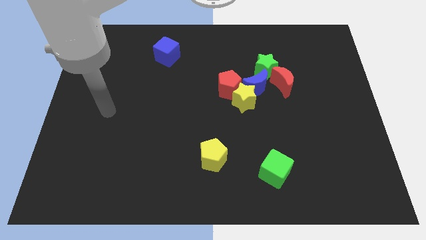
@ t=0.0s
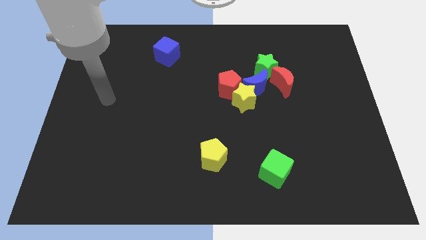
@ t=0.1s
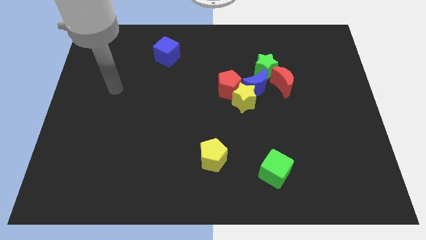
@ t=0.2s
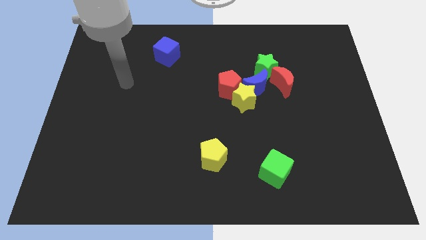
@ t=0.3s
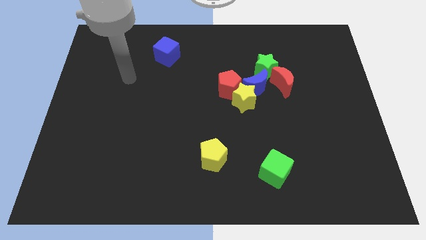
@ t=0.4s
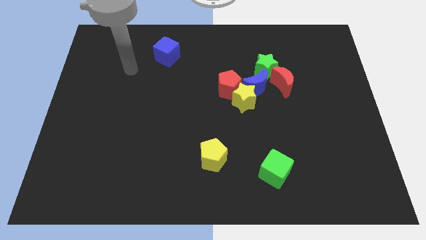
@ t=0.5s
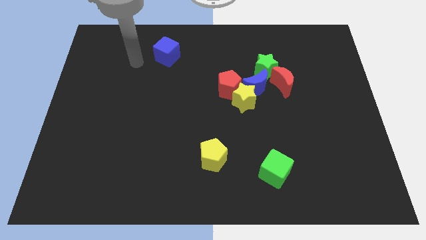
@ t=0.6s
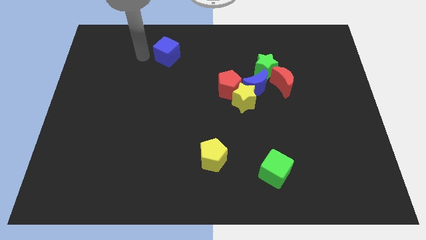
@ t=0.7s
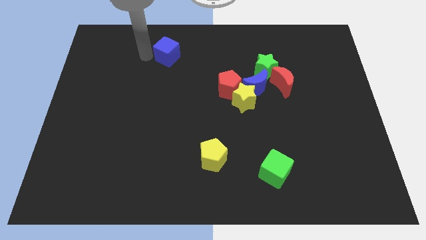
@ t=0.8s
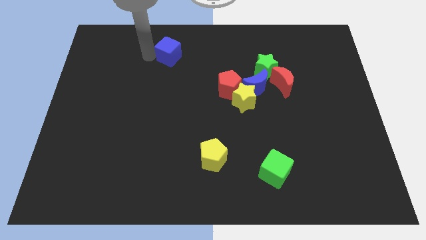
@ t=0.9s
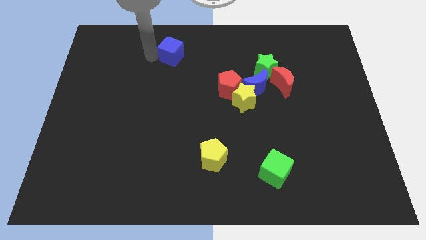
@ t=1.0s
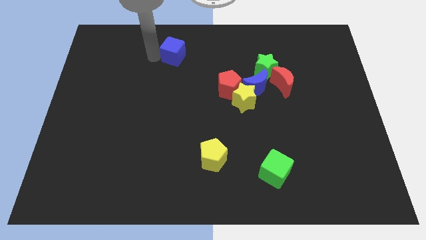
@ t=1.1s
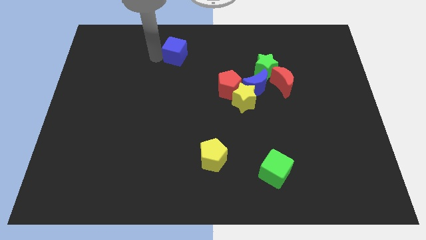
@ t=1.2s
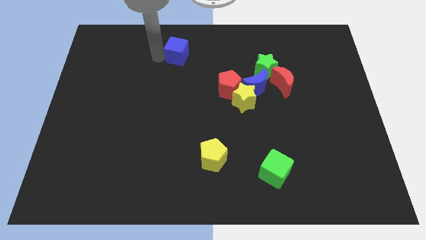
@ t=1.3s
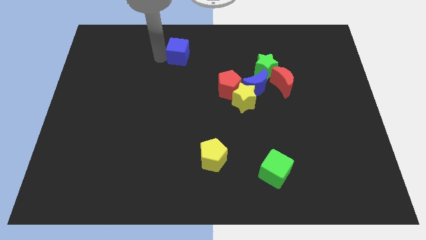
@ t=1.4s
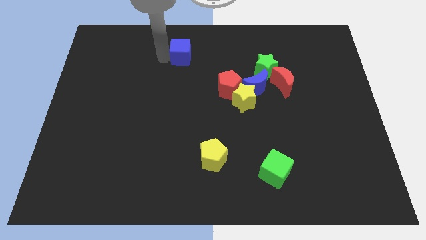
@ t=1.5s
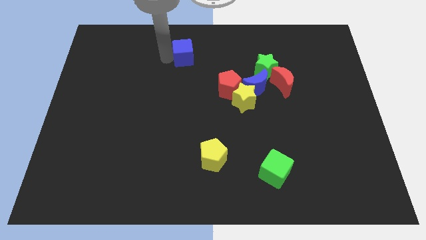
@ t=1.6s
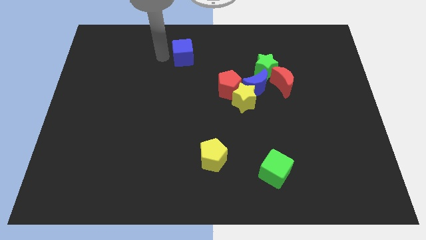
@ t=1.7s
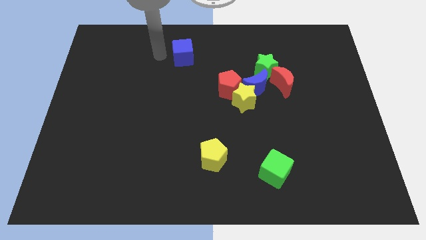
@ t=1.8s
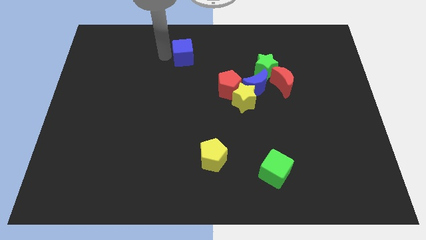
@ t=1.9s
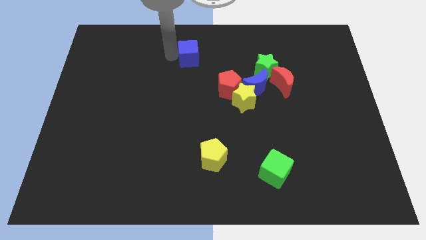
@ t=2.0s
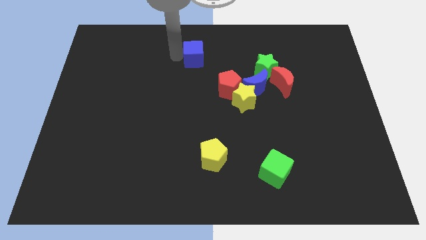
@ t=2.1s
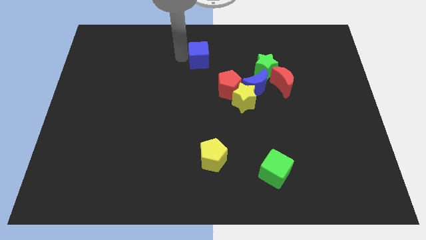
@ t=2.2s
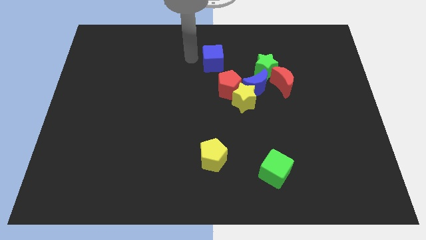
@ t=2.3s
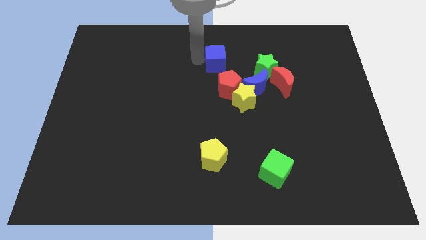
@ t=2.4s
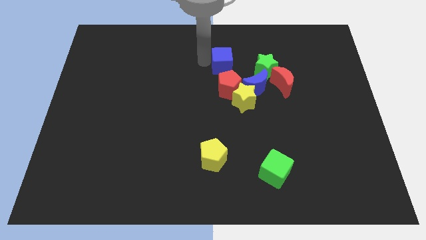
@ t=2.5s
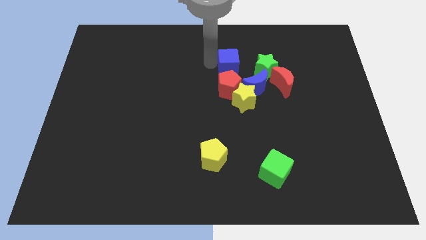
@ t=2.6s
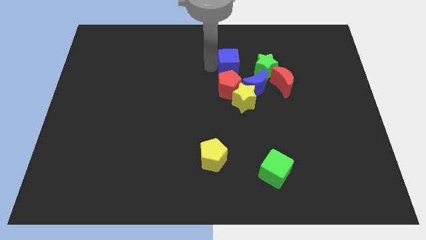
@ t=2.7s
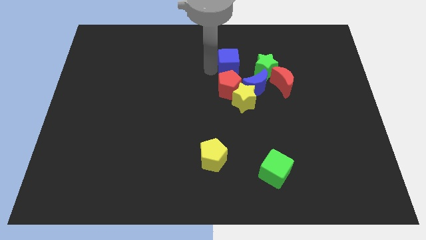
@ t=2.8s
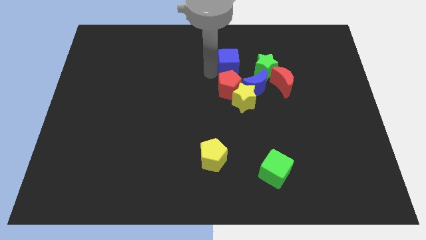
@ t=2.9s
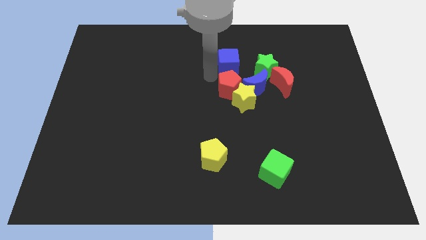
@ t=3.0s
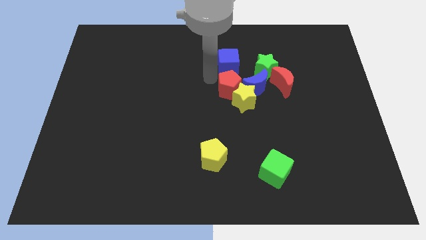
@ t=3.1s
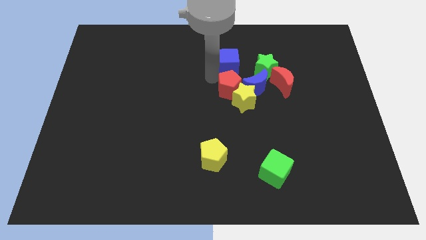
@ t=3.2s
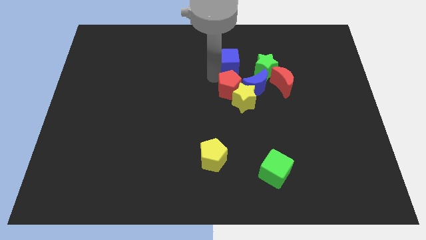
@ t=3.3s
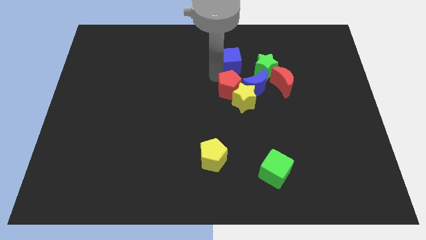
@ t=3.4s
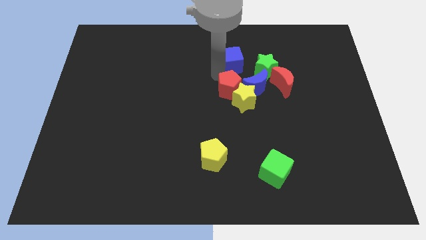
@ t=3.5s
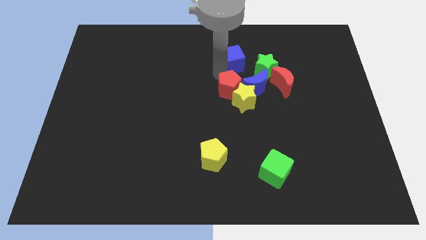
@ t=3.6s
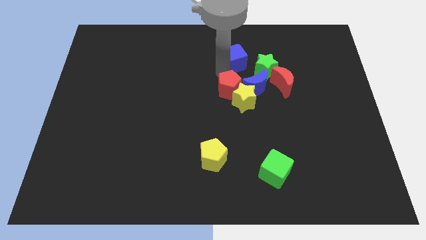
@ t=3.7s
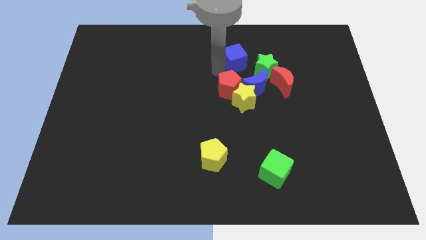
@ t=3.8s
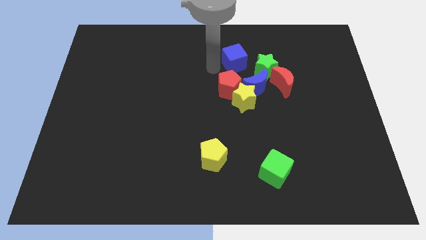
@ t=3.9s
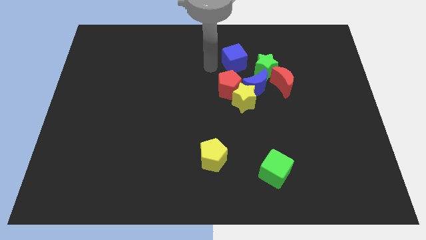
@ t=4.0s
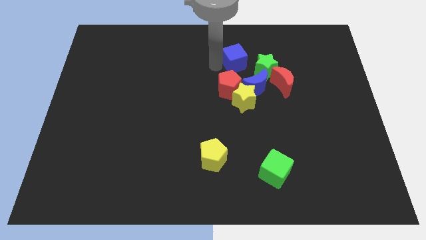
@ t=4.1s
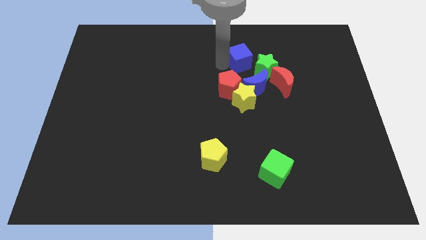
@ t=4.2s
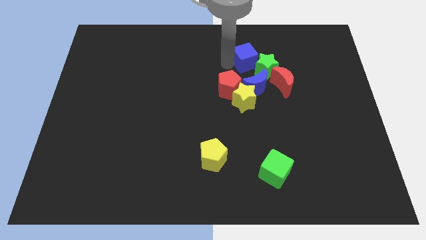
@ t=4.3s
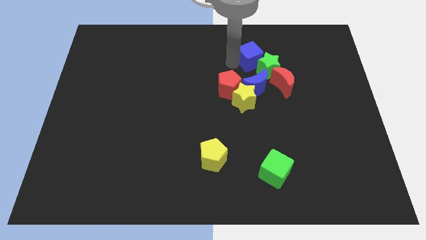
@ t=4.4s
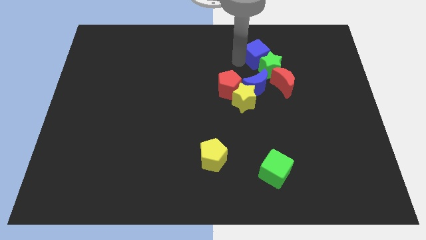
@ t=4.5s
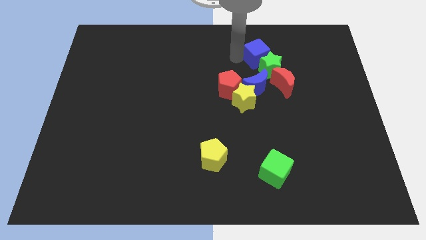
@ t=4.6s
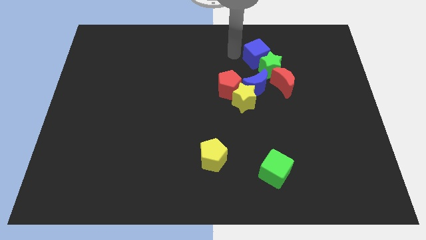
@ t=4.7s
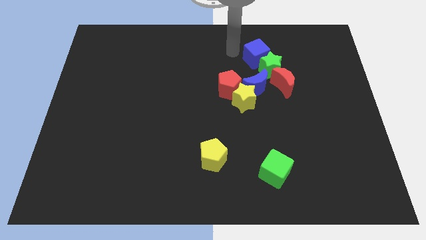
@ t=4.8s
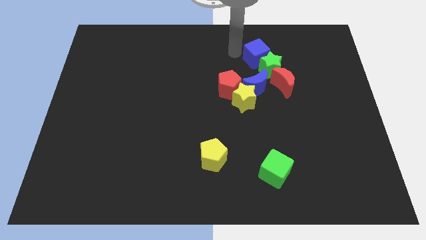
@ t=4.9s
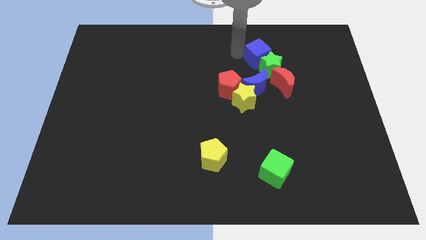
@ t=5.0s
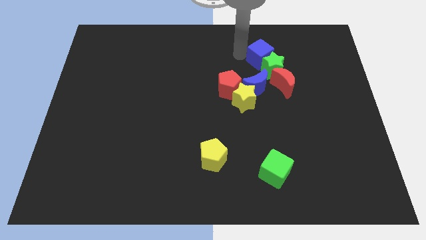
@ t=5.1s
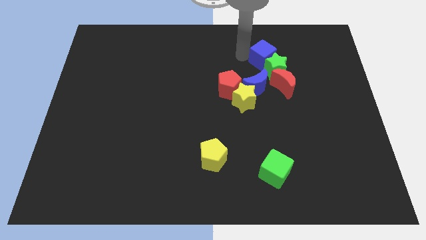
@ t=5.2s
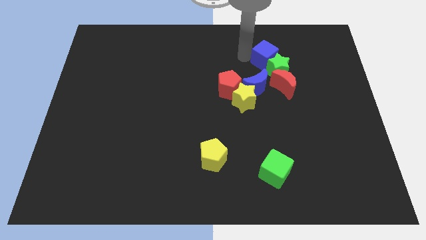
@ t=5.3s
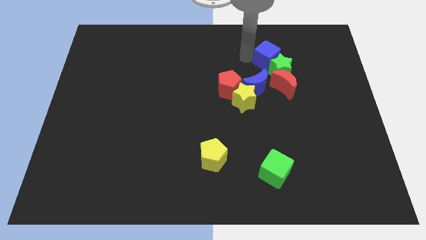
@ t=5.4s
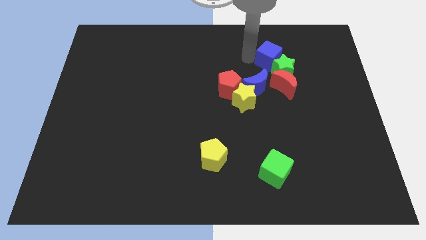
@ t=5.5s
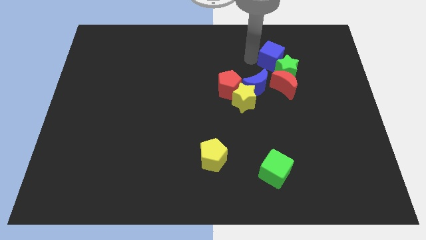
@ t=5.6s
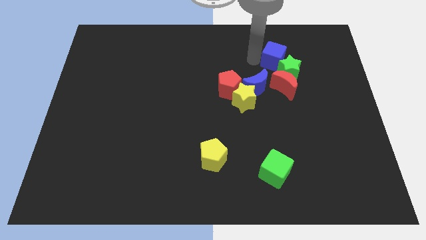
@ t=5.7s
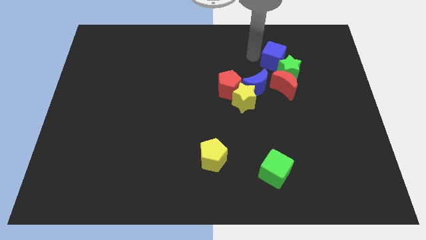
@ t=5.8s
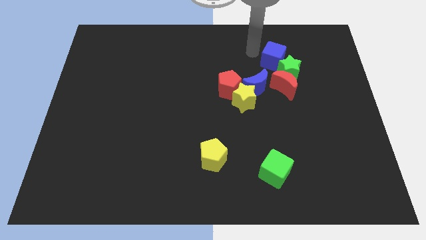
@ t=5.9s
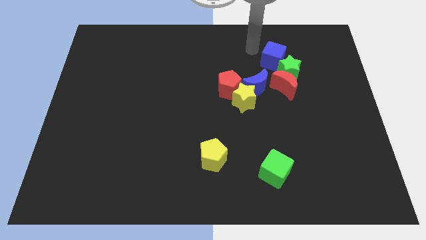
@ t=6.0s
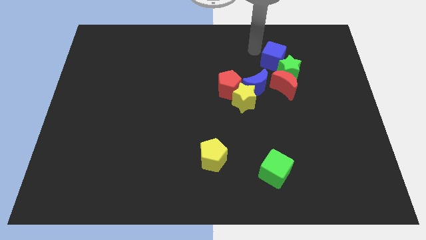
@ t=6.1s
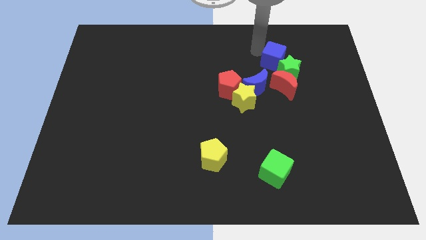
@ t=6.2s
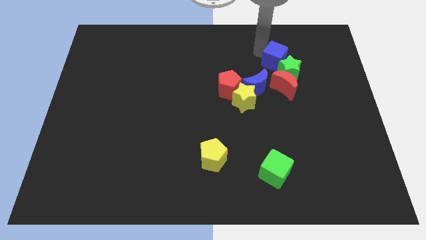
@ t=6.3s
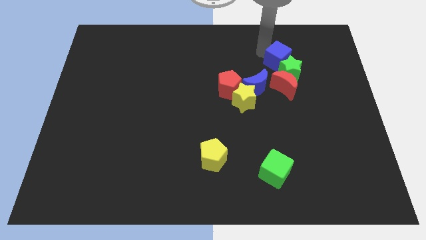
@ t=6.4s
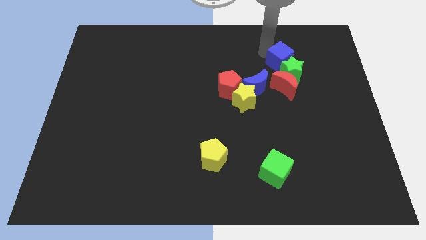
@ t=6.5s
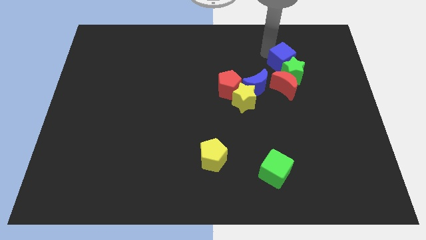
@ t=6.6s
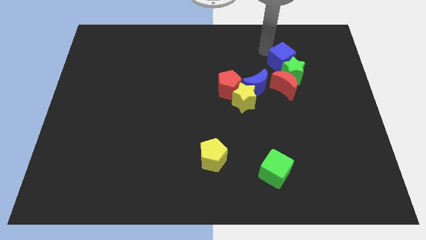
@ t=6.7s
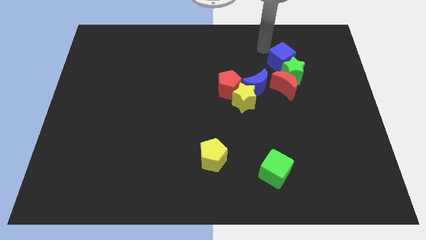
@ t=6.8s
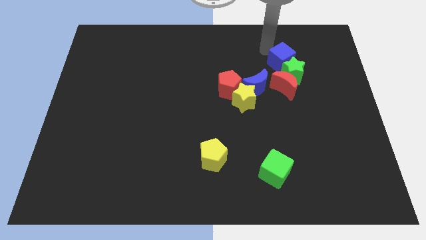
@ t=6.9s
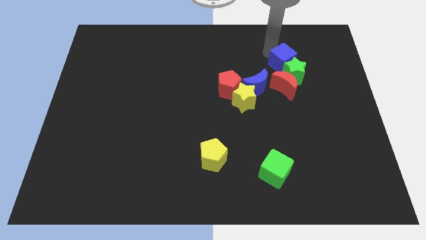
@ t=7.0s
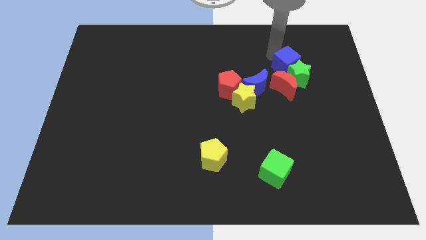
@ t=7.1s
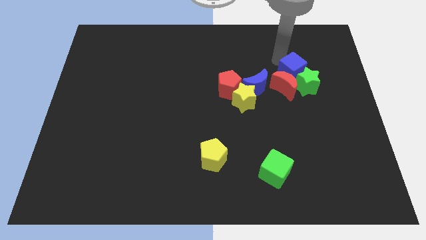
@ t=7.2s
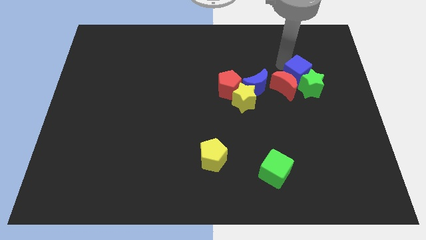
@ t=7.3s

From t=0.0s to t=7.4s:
put the blue cube to the right side of the red moon
